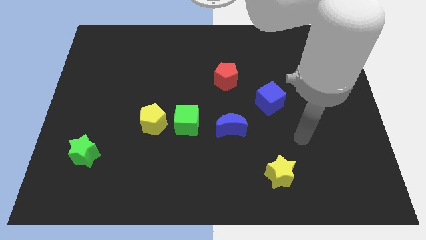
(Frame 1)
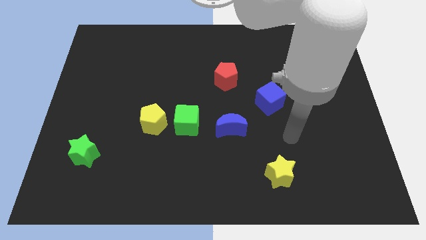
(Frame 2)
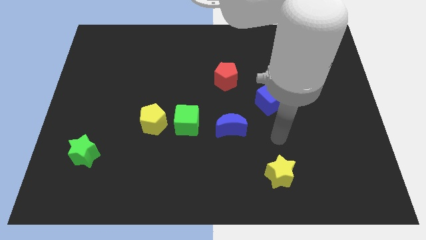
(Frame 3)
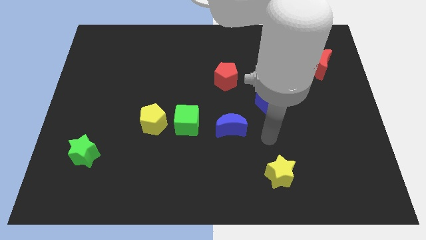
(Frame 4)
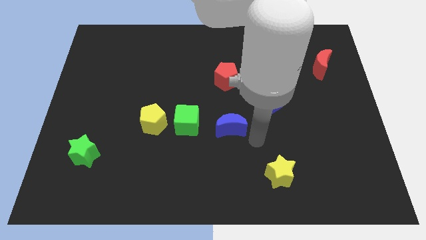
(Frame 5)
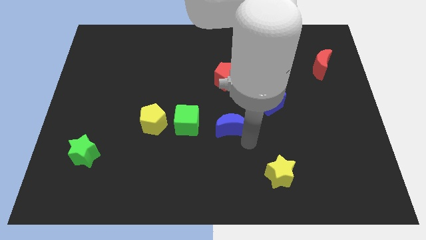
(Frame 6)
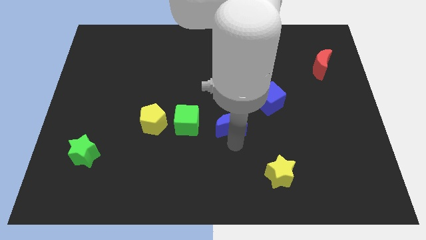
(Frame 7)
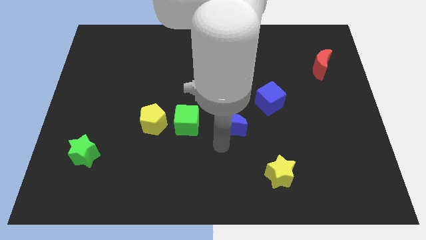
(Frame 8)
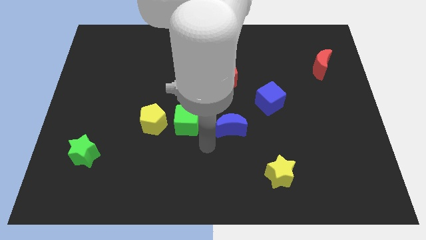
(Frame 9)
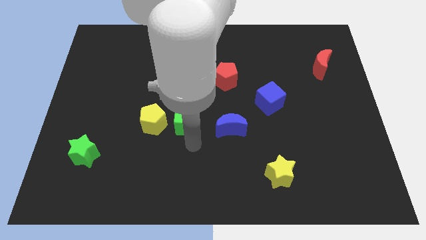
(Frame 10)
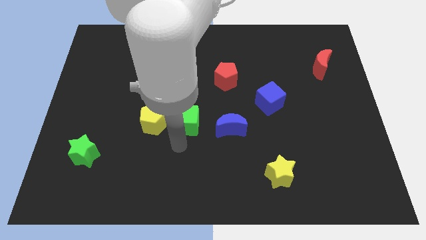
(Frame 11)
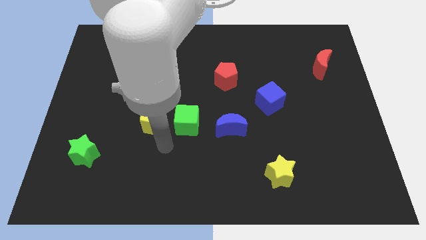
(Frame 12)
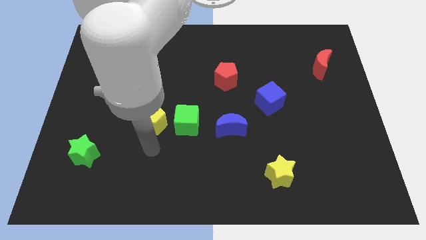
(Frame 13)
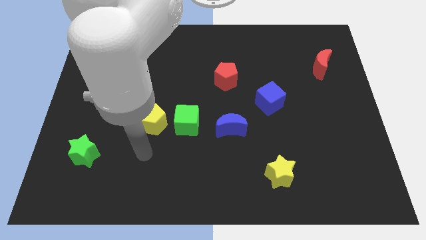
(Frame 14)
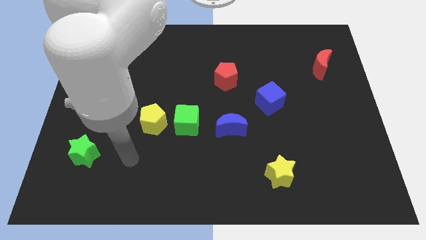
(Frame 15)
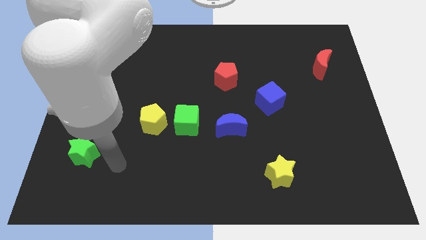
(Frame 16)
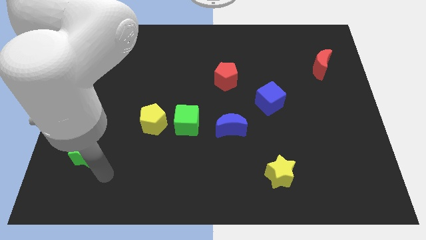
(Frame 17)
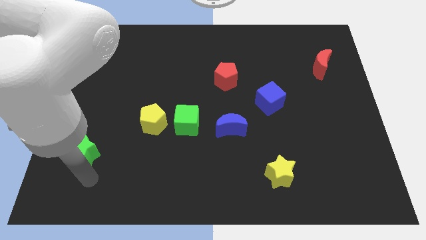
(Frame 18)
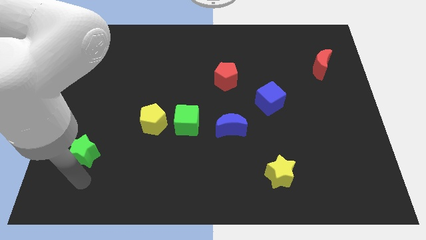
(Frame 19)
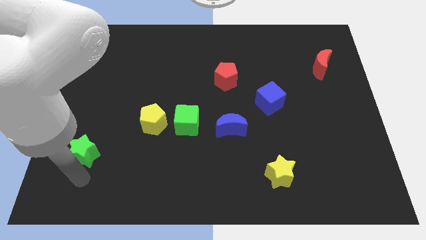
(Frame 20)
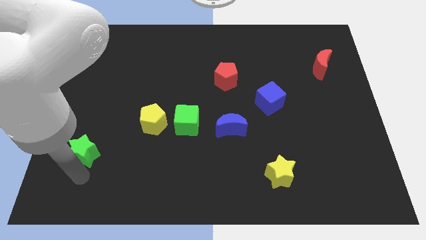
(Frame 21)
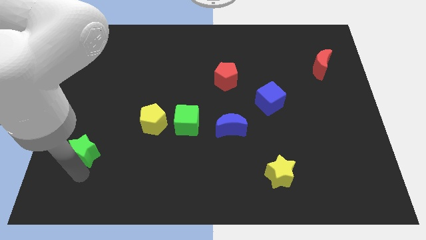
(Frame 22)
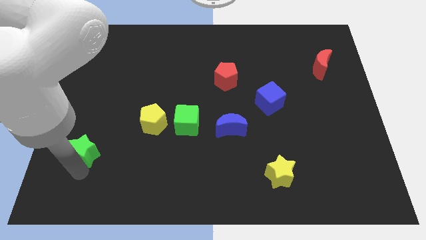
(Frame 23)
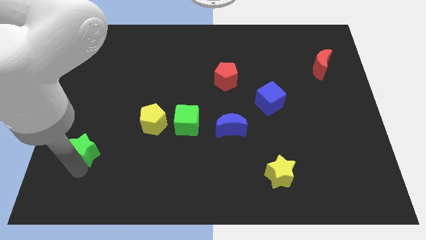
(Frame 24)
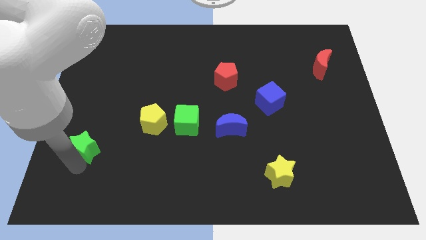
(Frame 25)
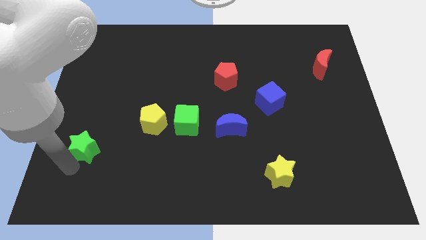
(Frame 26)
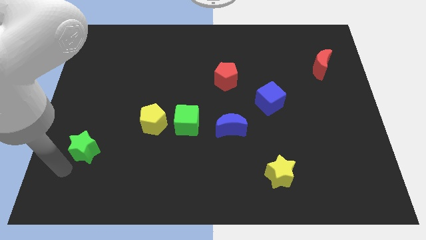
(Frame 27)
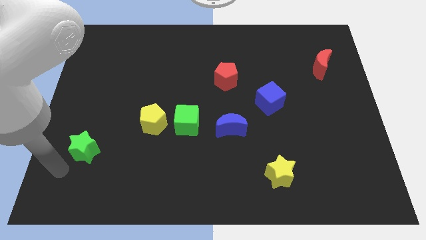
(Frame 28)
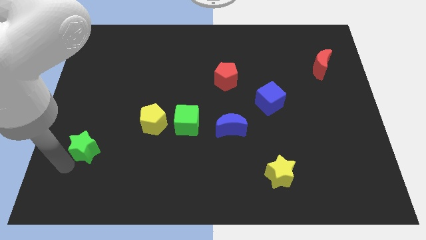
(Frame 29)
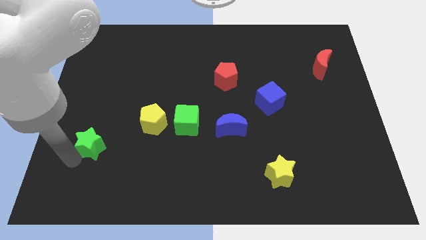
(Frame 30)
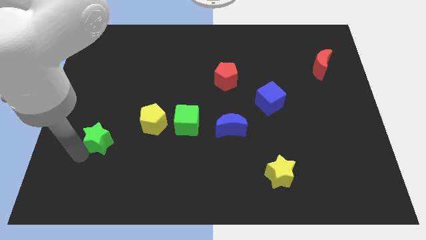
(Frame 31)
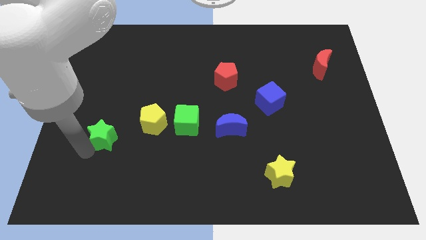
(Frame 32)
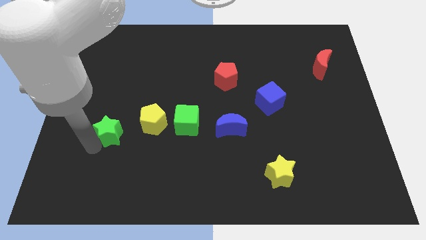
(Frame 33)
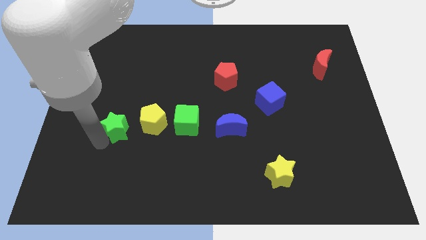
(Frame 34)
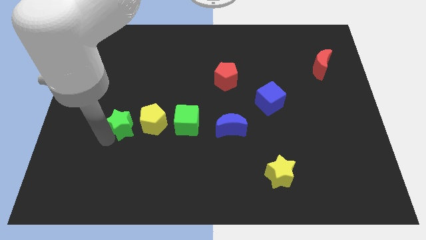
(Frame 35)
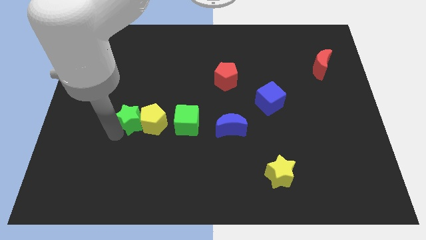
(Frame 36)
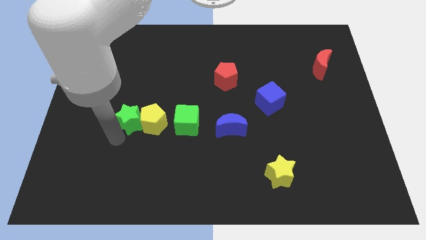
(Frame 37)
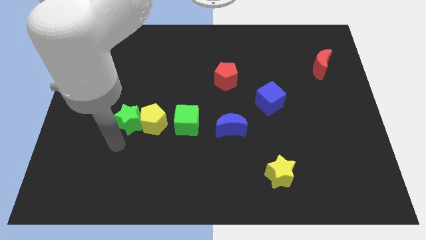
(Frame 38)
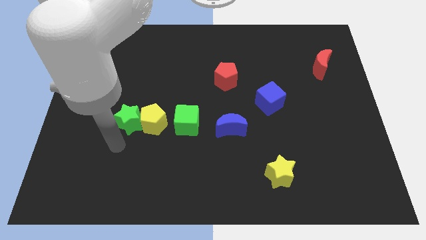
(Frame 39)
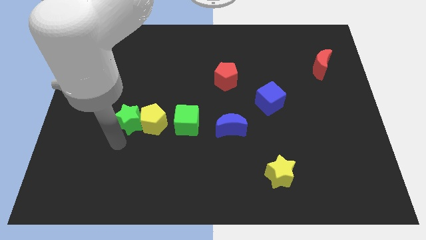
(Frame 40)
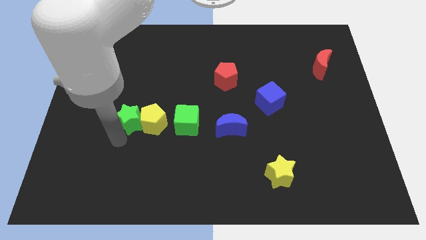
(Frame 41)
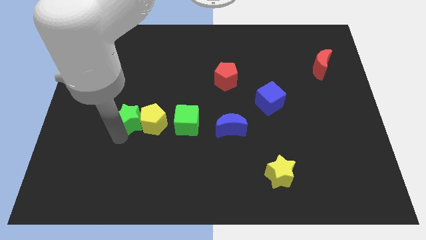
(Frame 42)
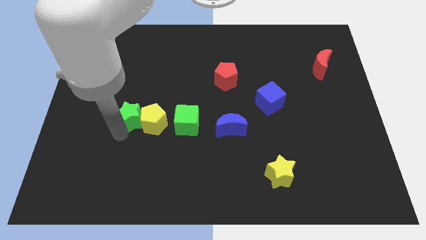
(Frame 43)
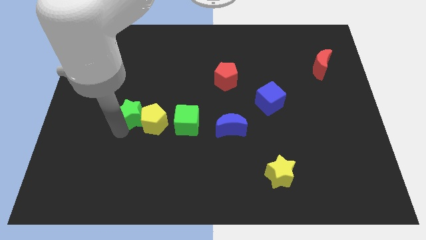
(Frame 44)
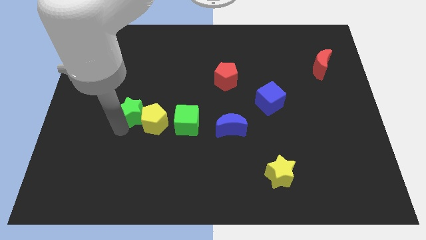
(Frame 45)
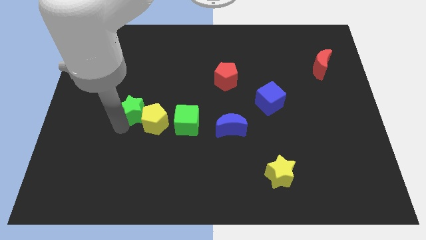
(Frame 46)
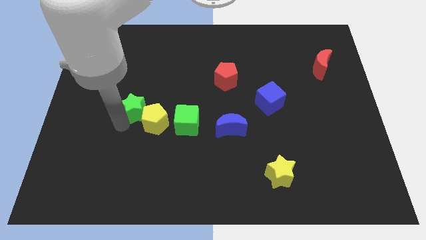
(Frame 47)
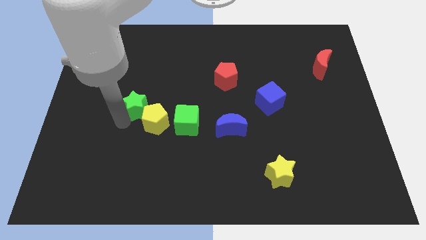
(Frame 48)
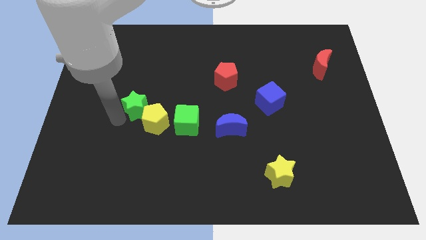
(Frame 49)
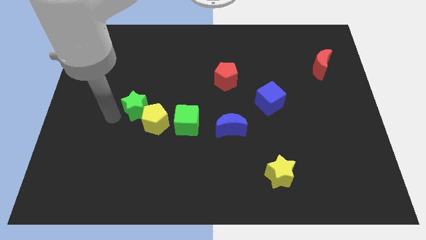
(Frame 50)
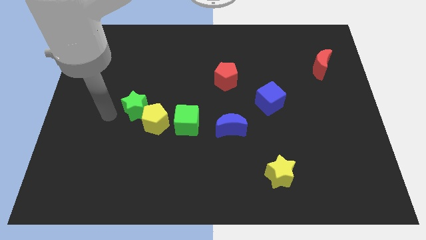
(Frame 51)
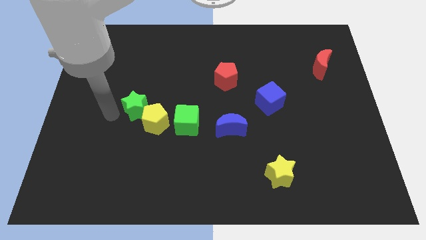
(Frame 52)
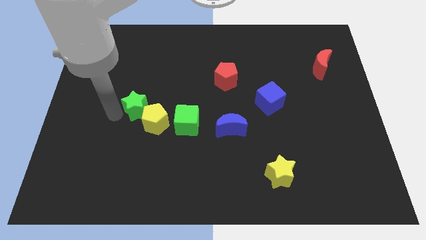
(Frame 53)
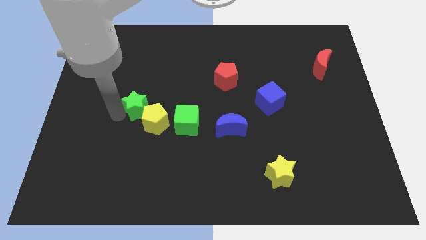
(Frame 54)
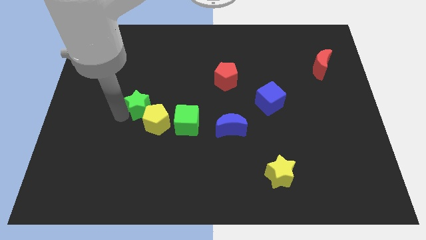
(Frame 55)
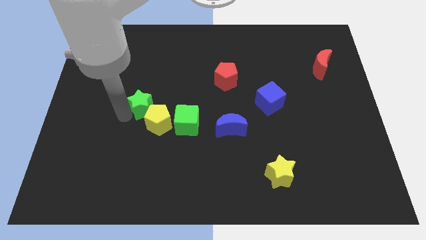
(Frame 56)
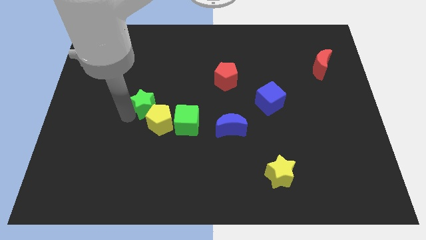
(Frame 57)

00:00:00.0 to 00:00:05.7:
move the green star to the top left of the green cube

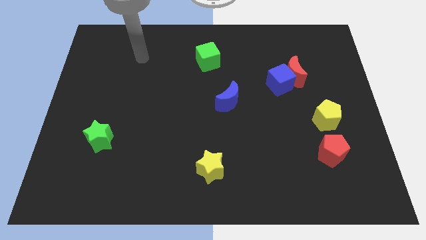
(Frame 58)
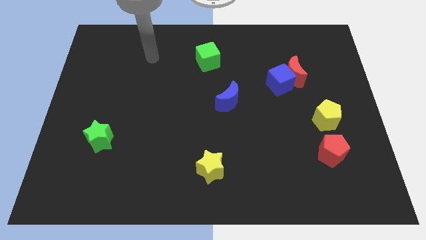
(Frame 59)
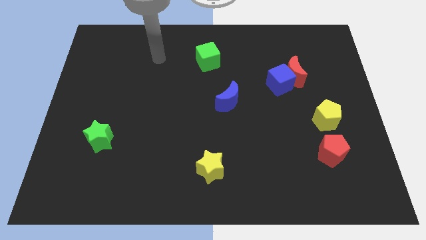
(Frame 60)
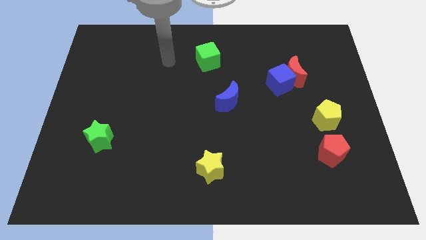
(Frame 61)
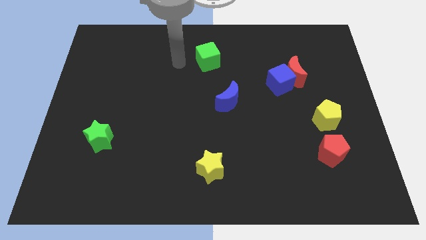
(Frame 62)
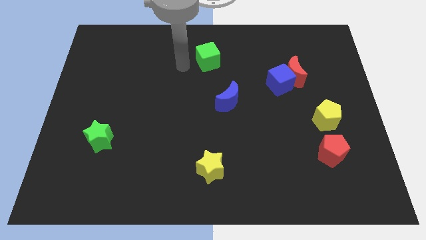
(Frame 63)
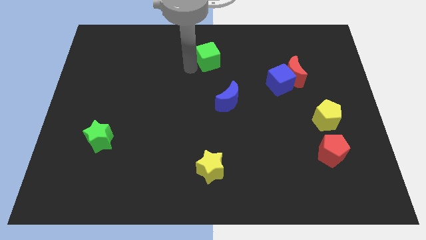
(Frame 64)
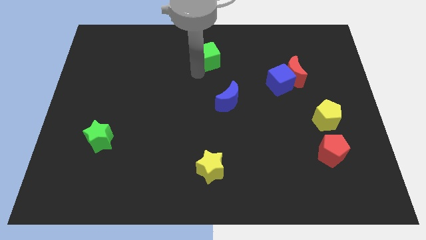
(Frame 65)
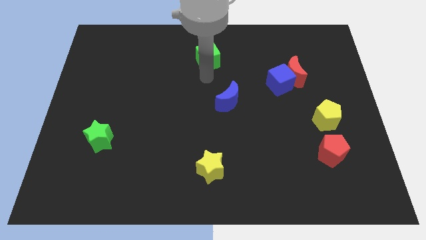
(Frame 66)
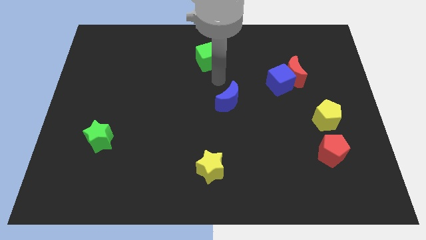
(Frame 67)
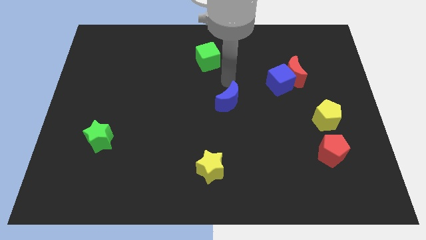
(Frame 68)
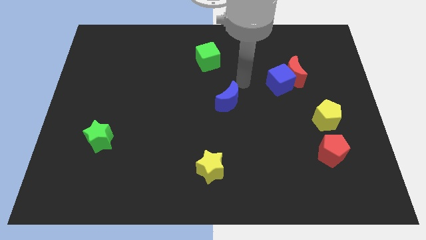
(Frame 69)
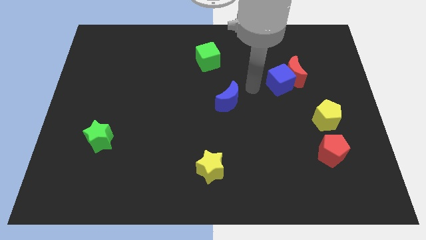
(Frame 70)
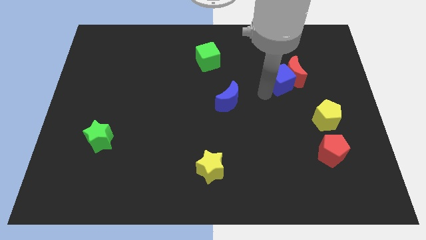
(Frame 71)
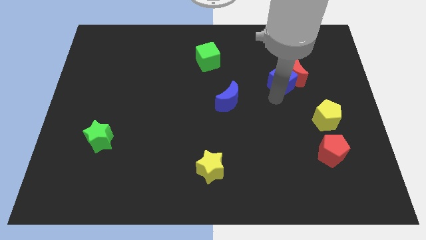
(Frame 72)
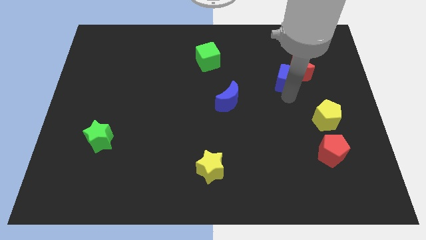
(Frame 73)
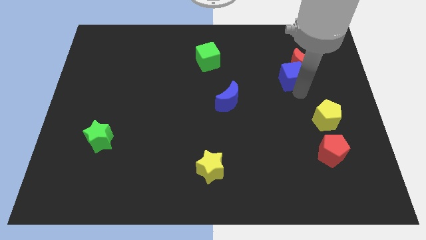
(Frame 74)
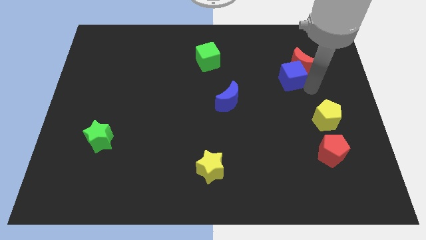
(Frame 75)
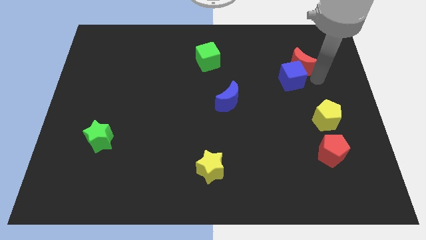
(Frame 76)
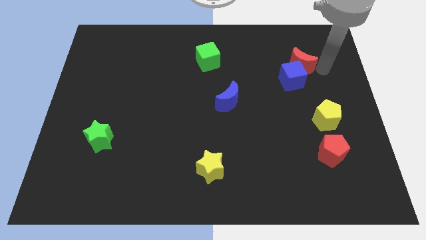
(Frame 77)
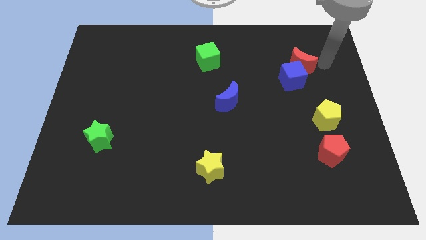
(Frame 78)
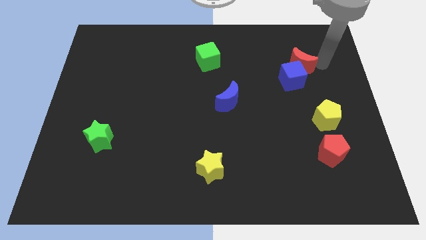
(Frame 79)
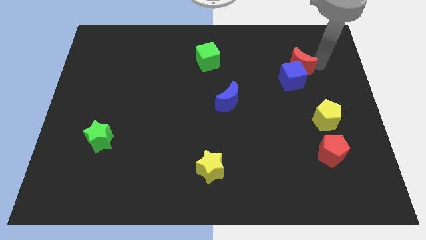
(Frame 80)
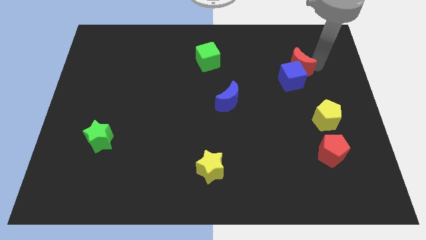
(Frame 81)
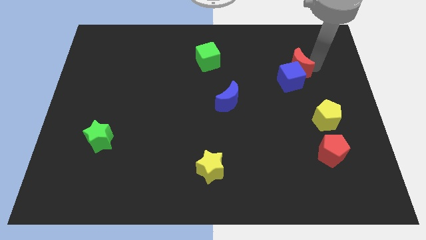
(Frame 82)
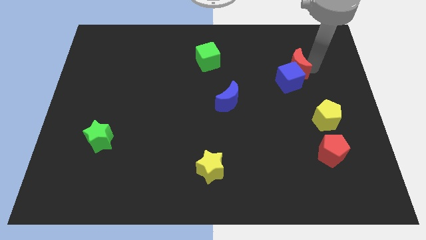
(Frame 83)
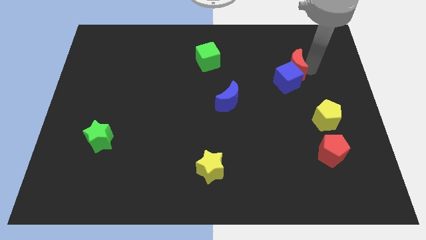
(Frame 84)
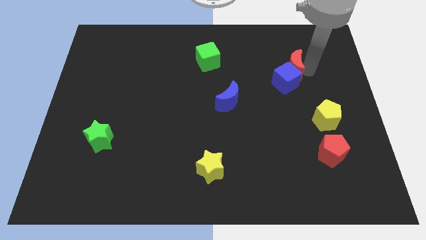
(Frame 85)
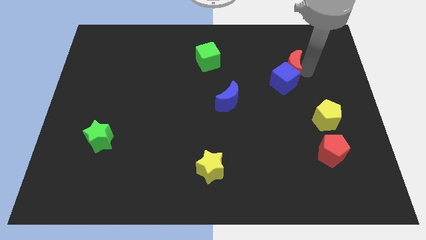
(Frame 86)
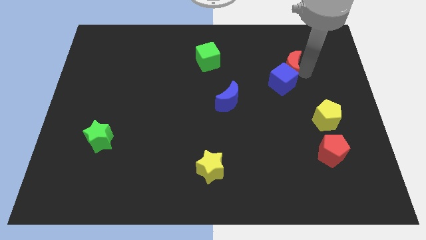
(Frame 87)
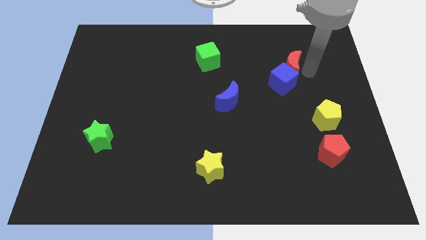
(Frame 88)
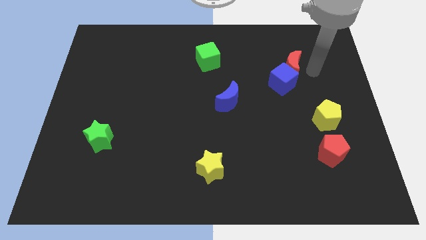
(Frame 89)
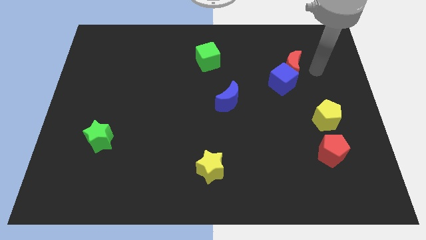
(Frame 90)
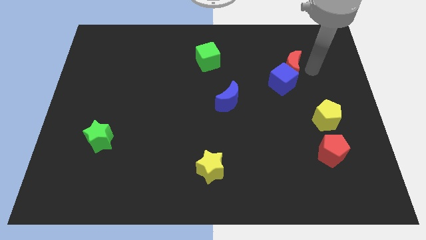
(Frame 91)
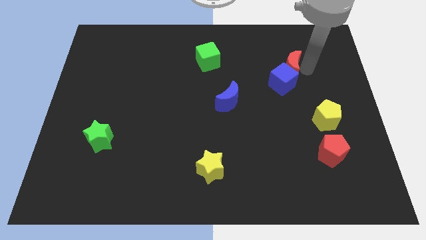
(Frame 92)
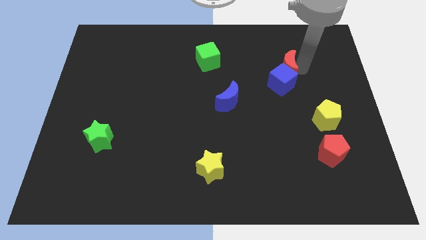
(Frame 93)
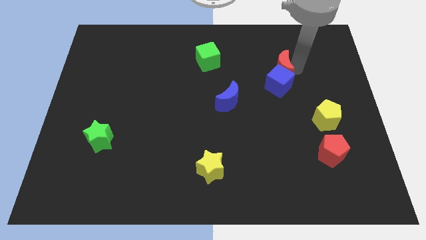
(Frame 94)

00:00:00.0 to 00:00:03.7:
slide the red moon to the top left of the blue cube
